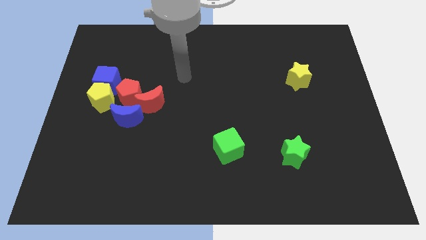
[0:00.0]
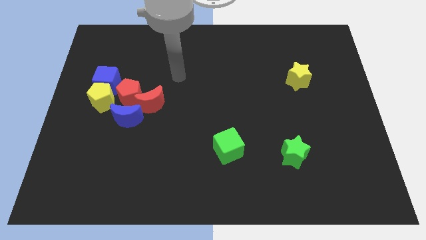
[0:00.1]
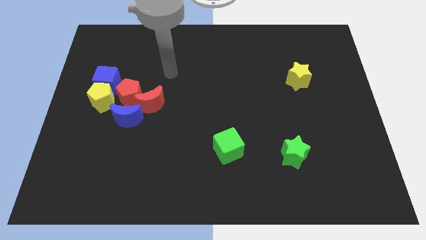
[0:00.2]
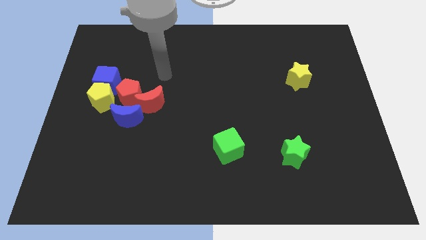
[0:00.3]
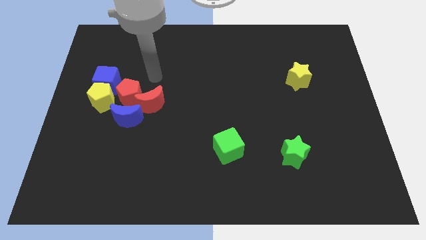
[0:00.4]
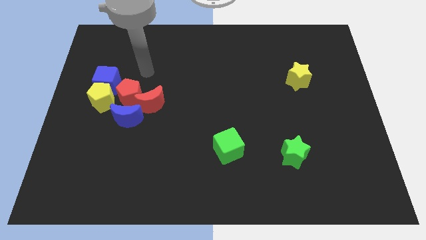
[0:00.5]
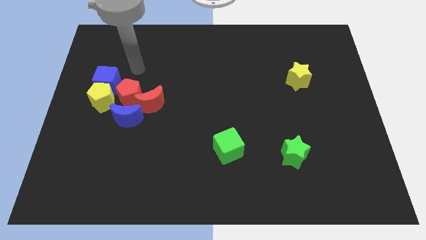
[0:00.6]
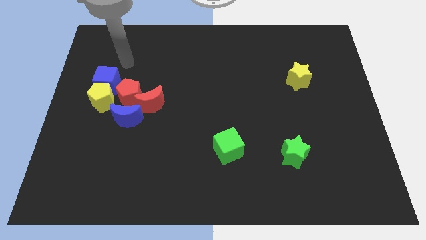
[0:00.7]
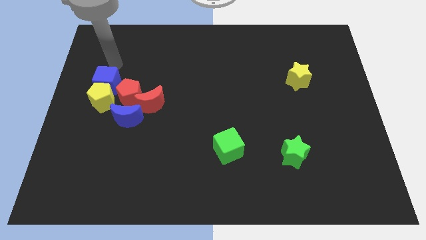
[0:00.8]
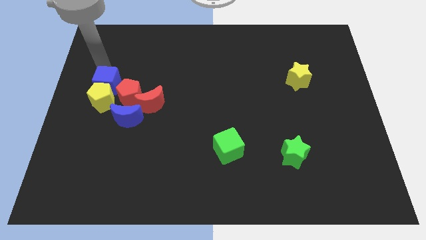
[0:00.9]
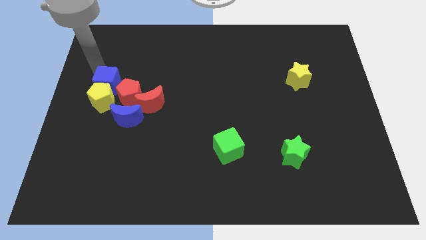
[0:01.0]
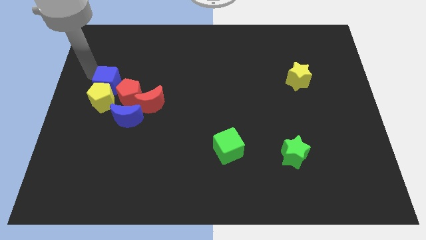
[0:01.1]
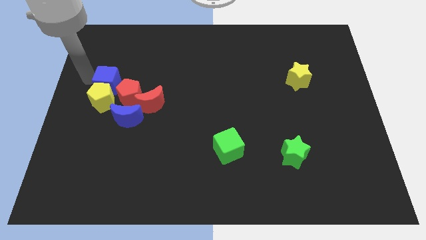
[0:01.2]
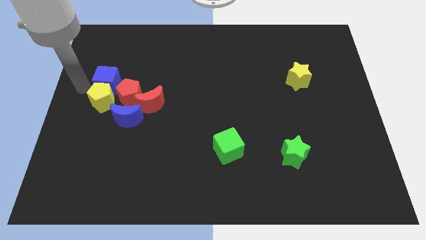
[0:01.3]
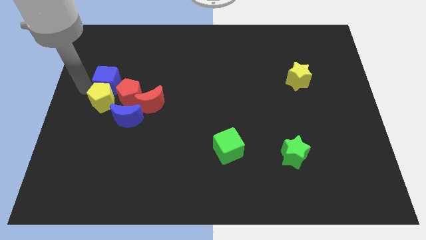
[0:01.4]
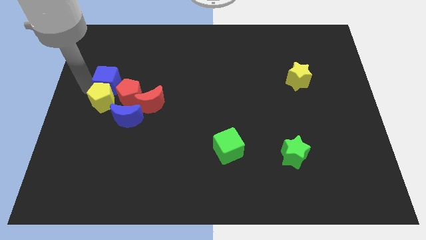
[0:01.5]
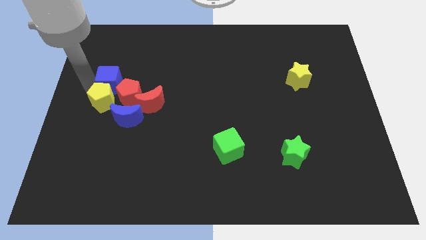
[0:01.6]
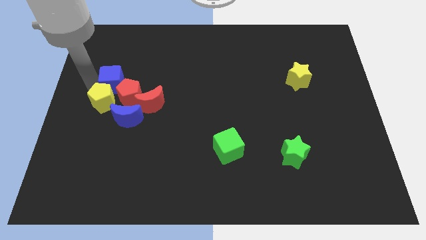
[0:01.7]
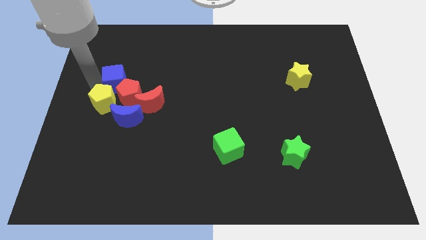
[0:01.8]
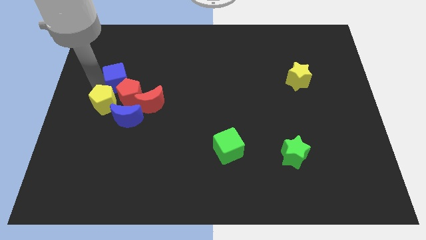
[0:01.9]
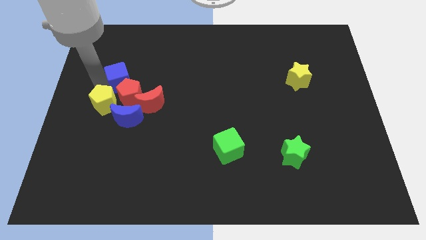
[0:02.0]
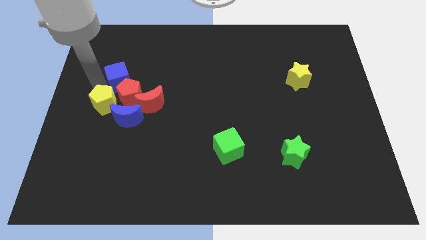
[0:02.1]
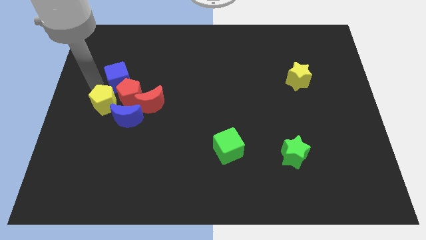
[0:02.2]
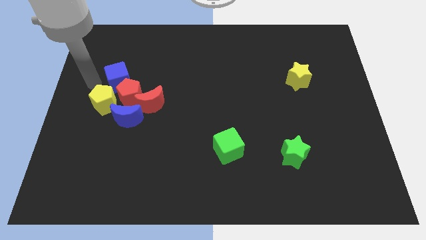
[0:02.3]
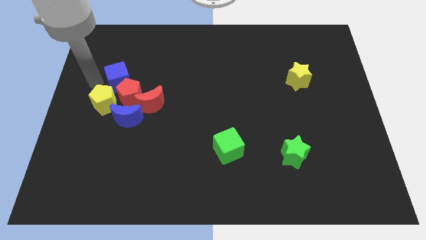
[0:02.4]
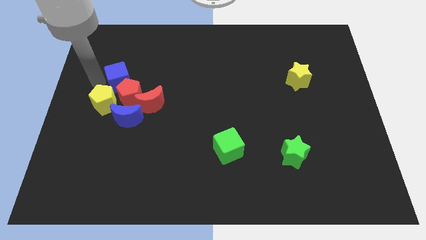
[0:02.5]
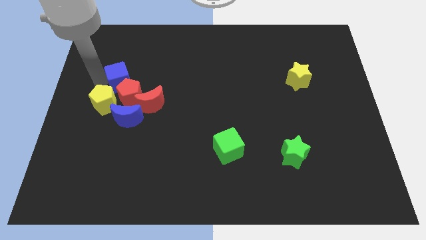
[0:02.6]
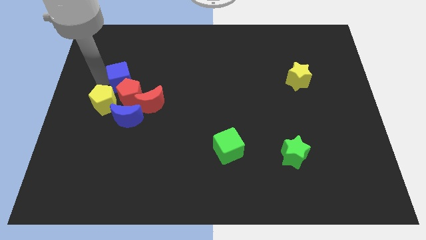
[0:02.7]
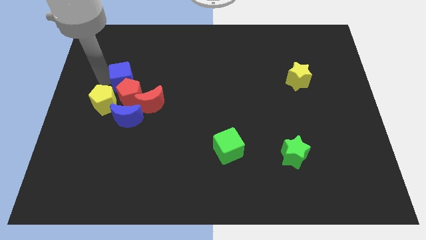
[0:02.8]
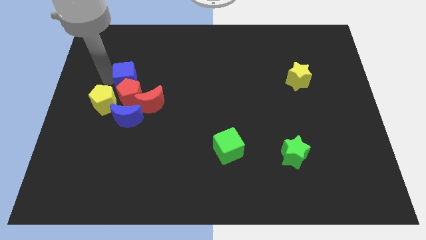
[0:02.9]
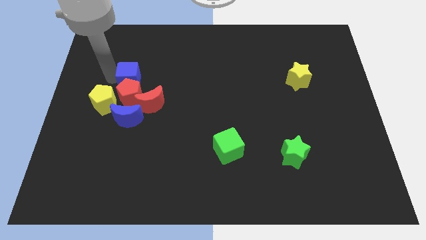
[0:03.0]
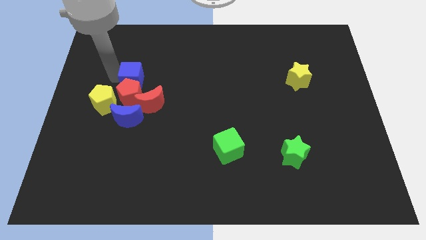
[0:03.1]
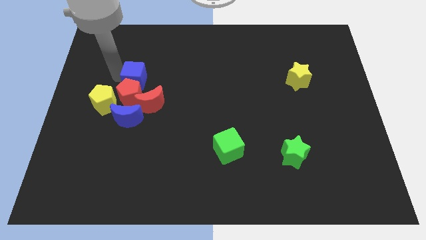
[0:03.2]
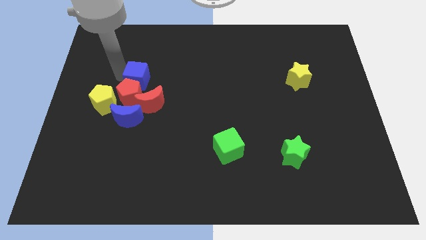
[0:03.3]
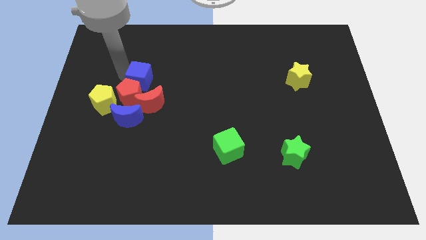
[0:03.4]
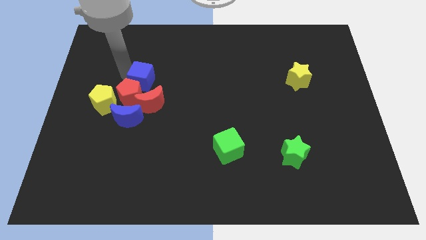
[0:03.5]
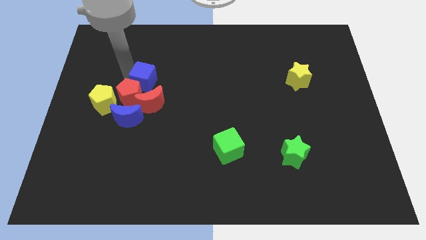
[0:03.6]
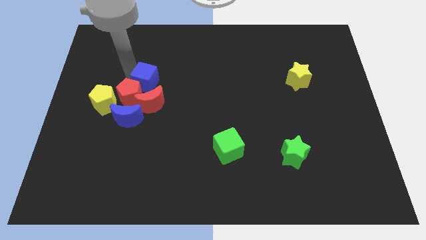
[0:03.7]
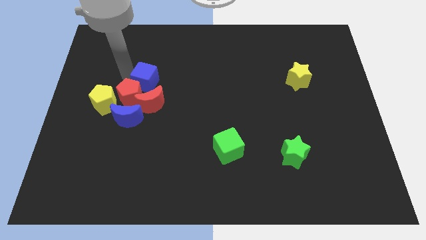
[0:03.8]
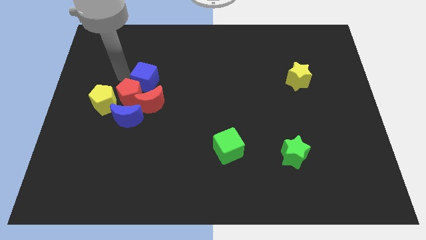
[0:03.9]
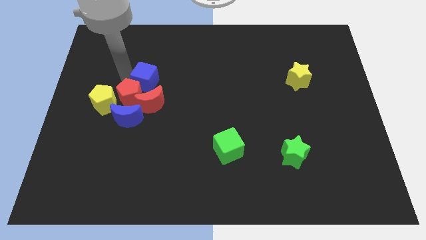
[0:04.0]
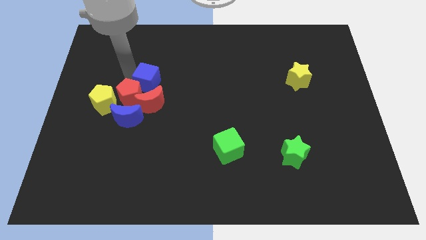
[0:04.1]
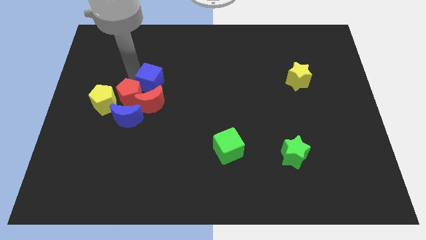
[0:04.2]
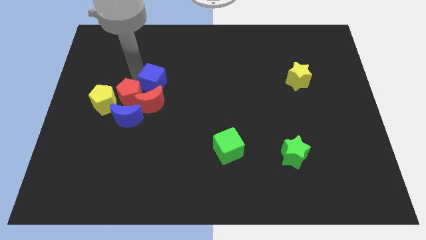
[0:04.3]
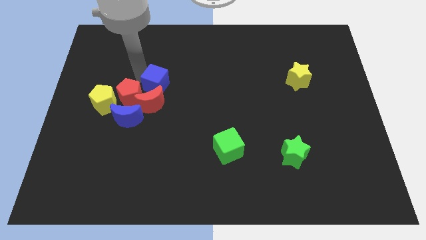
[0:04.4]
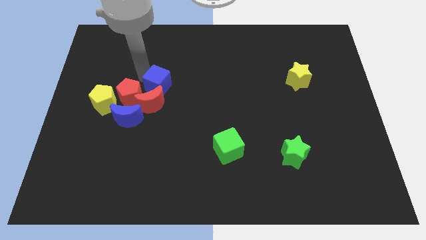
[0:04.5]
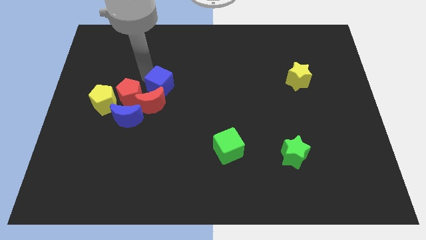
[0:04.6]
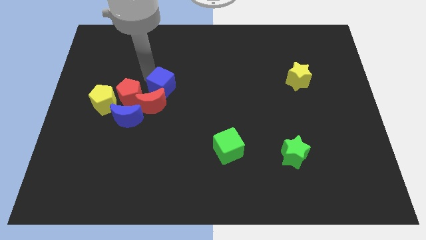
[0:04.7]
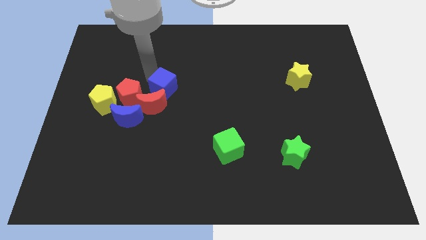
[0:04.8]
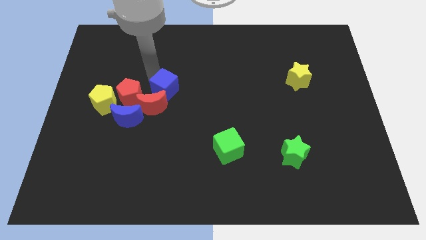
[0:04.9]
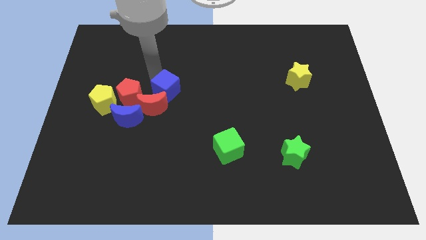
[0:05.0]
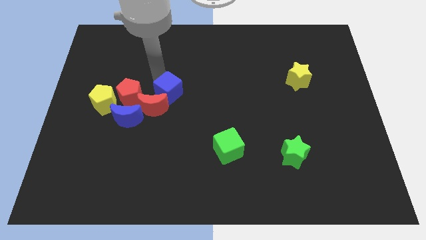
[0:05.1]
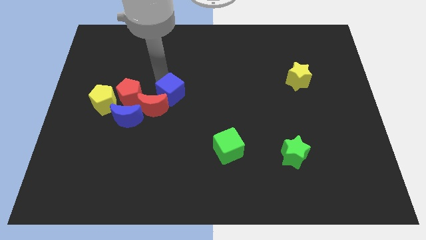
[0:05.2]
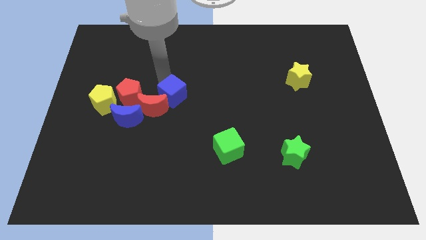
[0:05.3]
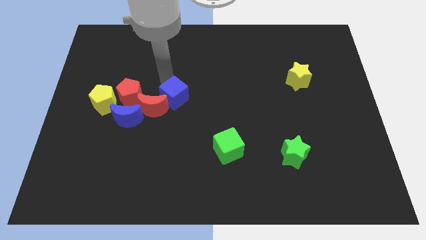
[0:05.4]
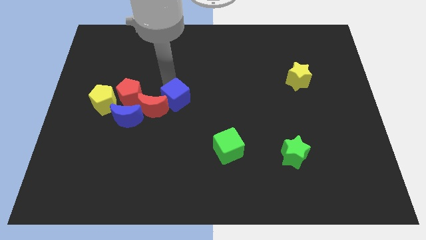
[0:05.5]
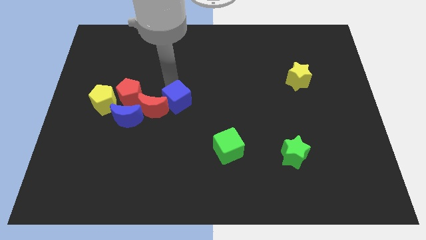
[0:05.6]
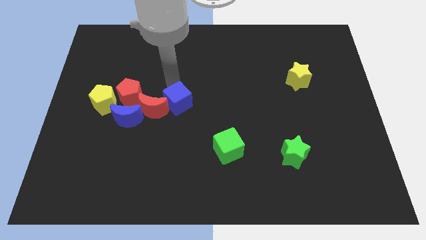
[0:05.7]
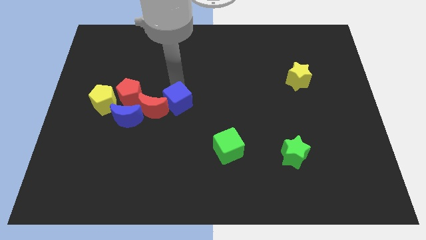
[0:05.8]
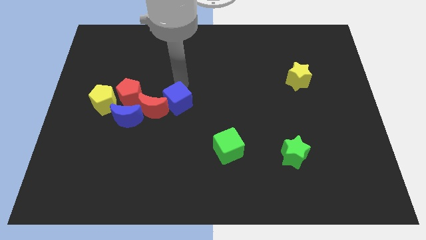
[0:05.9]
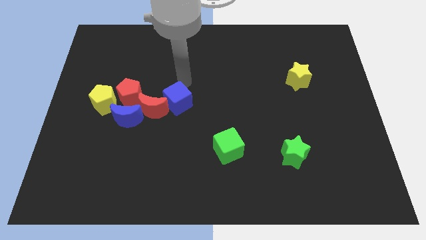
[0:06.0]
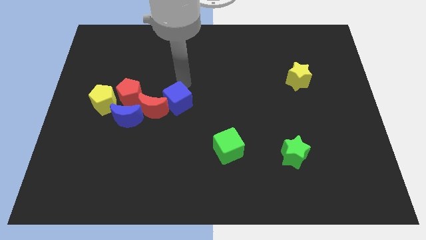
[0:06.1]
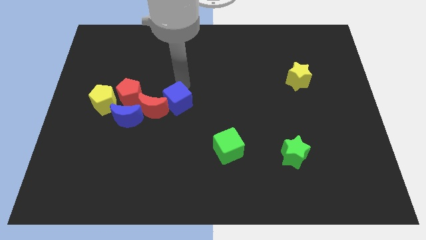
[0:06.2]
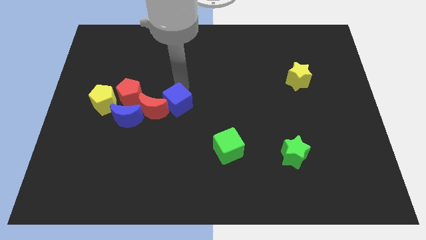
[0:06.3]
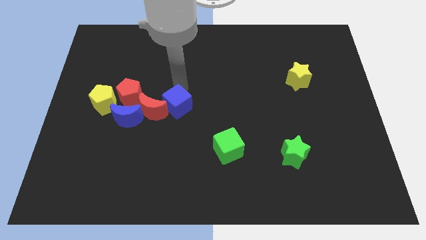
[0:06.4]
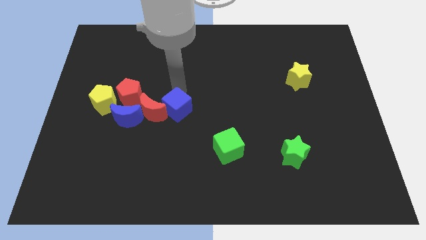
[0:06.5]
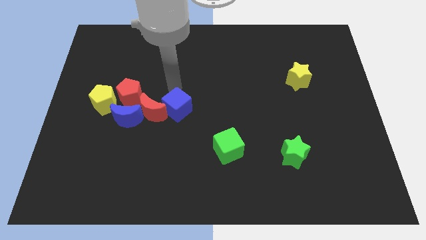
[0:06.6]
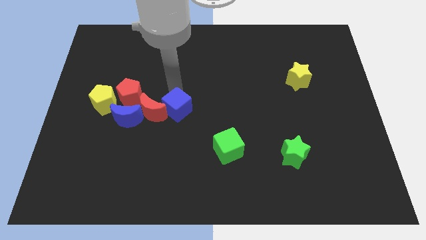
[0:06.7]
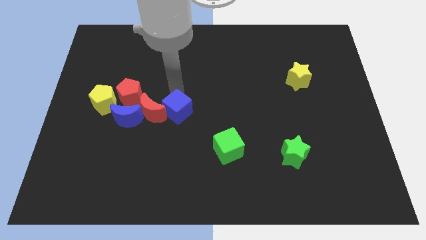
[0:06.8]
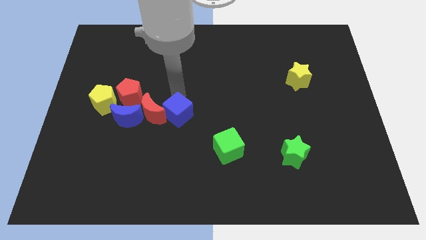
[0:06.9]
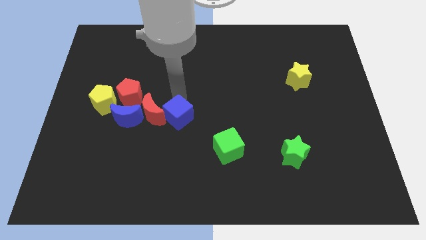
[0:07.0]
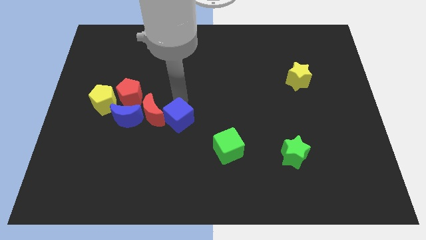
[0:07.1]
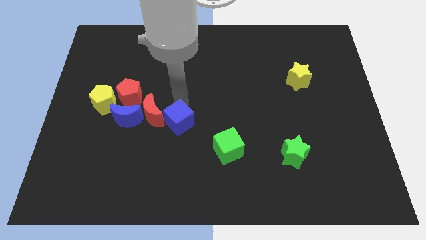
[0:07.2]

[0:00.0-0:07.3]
move the blue cube diagonally downwards and right

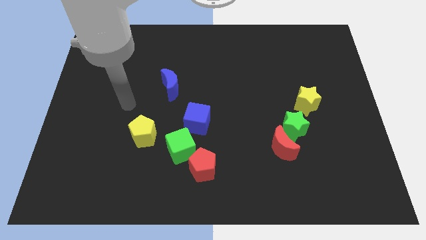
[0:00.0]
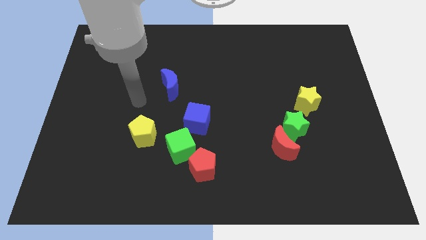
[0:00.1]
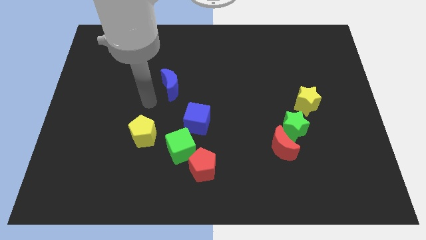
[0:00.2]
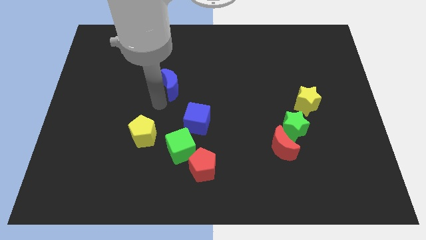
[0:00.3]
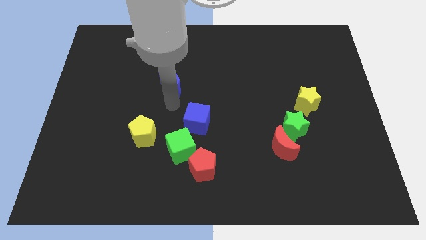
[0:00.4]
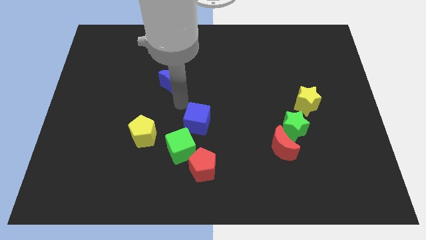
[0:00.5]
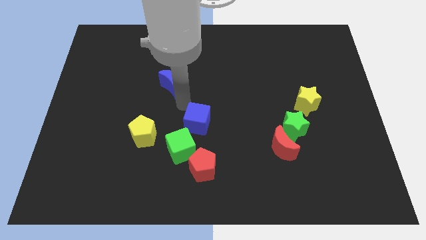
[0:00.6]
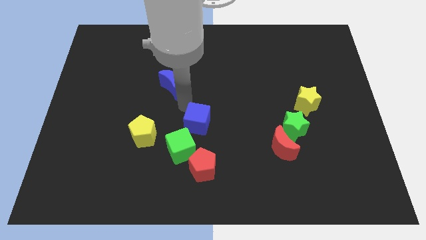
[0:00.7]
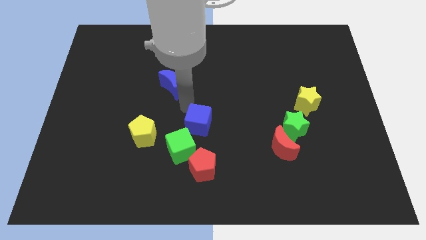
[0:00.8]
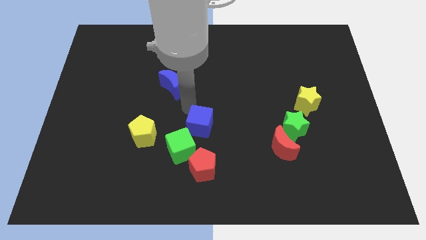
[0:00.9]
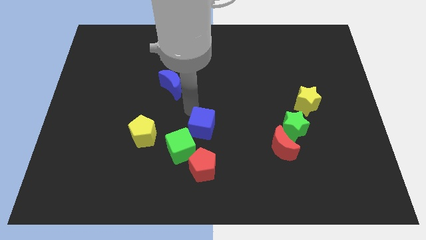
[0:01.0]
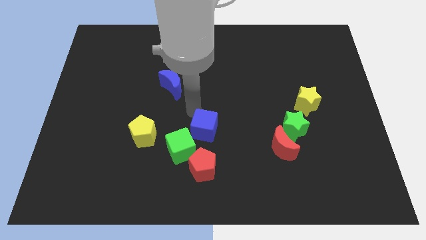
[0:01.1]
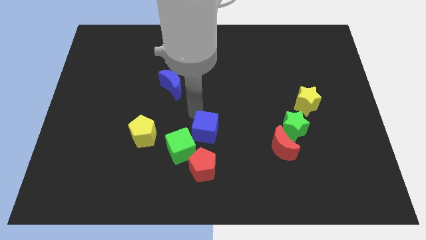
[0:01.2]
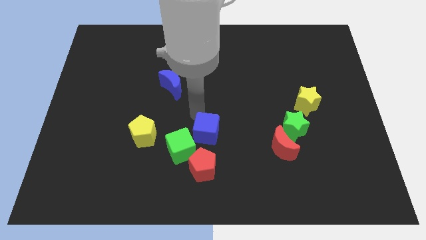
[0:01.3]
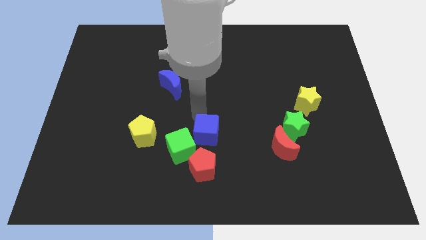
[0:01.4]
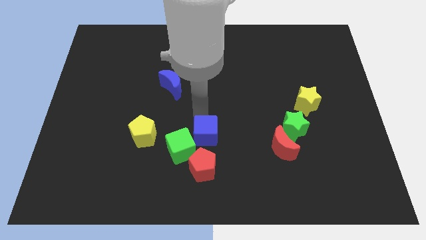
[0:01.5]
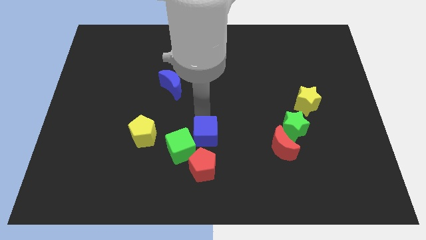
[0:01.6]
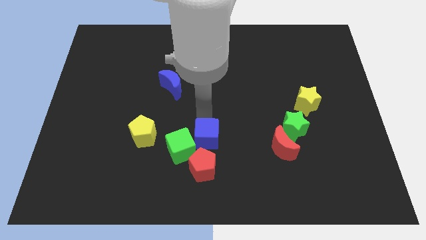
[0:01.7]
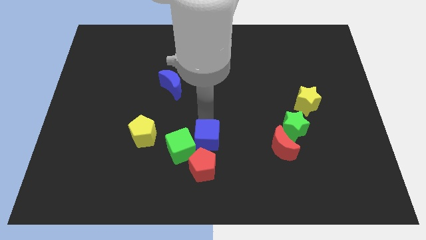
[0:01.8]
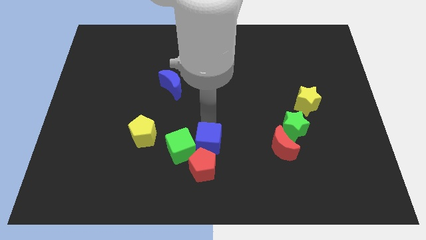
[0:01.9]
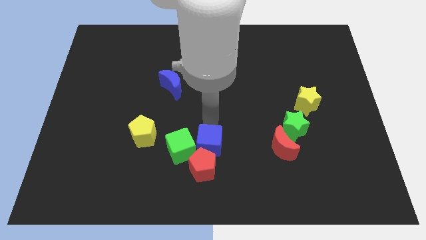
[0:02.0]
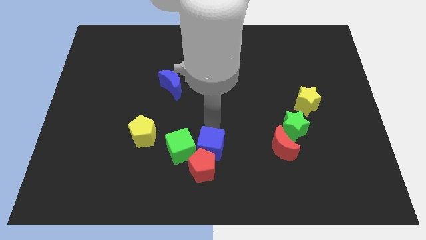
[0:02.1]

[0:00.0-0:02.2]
slightly push the blue cube diagonally down and to the right
